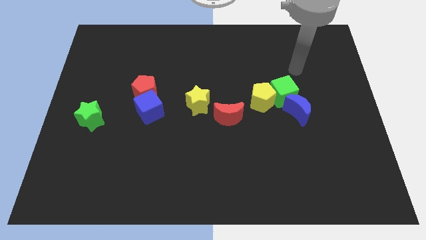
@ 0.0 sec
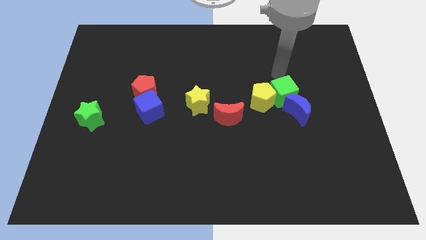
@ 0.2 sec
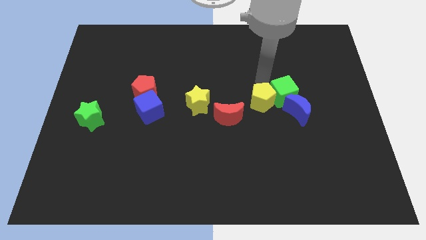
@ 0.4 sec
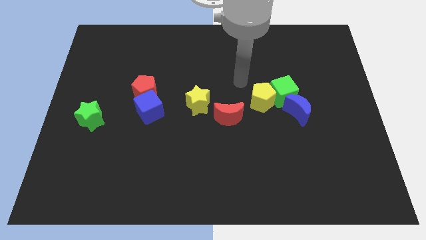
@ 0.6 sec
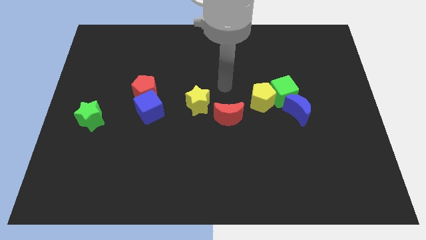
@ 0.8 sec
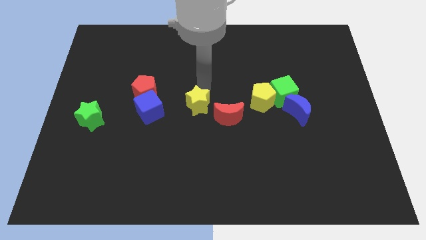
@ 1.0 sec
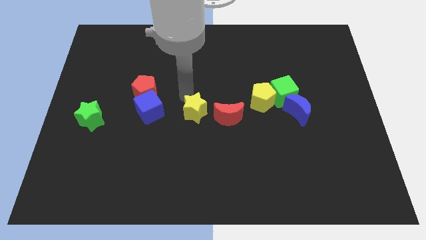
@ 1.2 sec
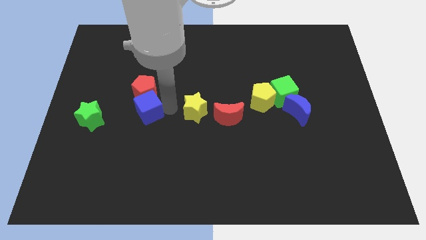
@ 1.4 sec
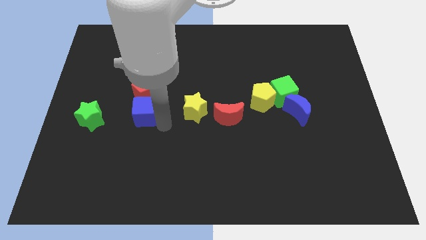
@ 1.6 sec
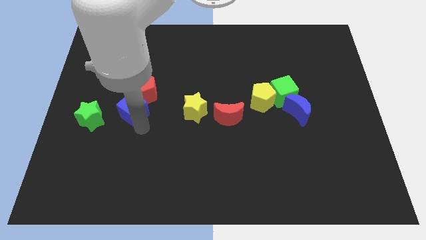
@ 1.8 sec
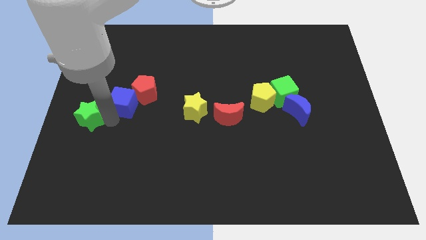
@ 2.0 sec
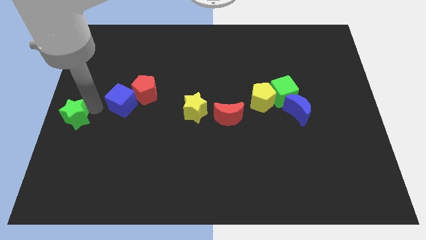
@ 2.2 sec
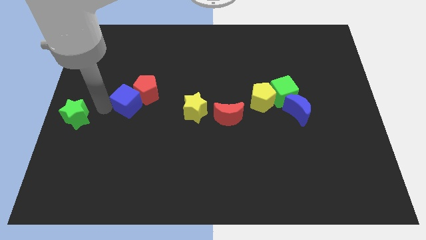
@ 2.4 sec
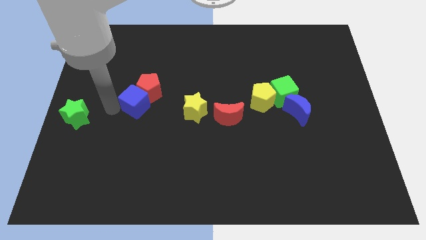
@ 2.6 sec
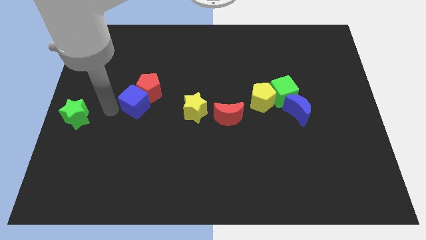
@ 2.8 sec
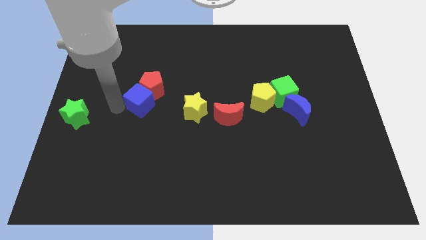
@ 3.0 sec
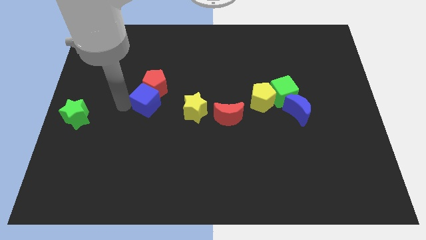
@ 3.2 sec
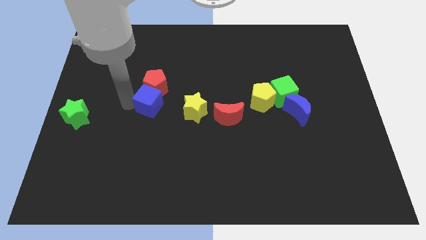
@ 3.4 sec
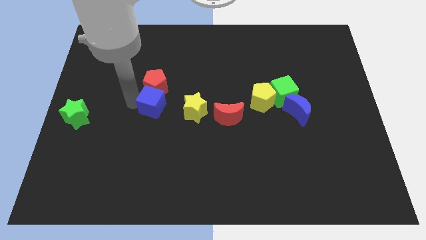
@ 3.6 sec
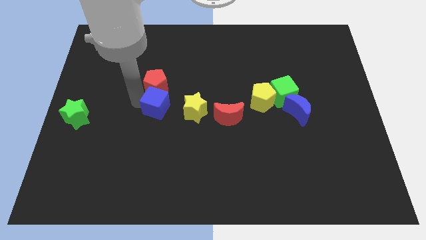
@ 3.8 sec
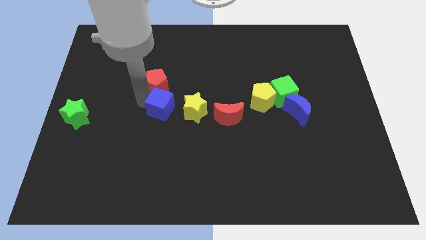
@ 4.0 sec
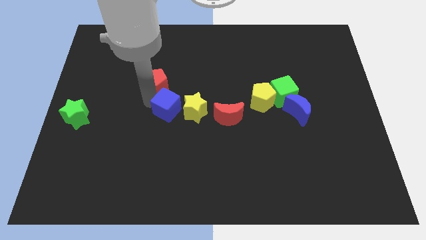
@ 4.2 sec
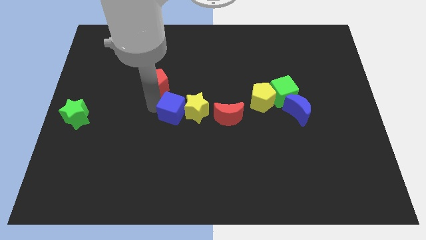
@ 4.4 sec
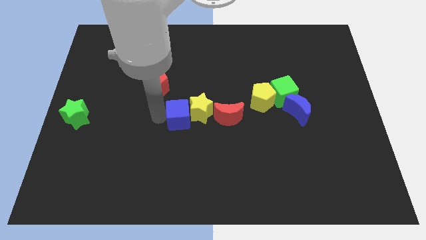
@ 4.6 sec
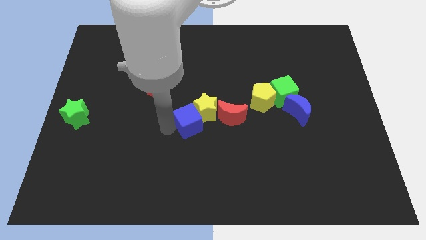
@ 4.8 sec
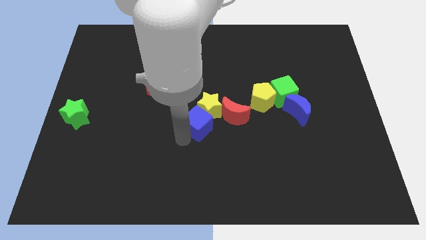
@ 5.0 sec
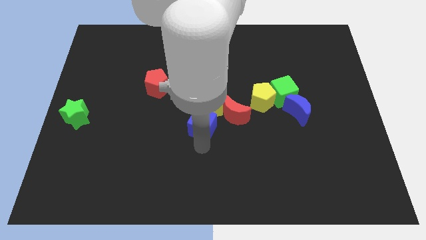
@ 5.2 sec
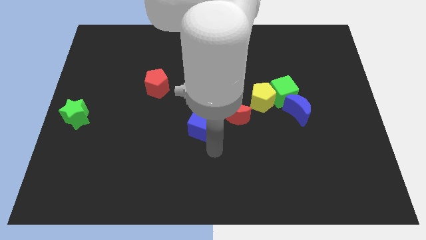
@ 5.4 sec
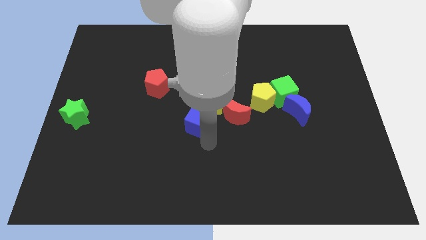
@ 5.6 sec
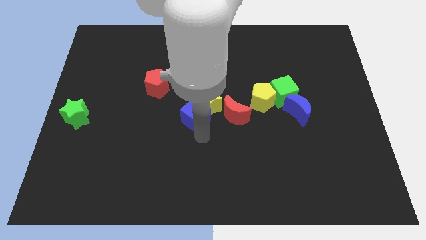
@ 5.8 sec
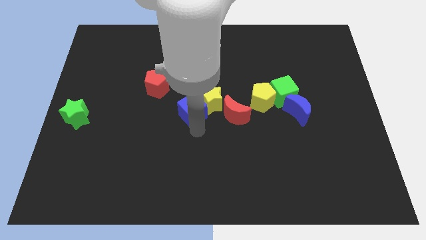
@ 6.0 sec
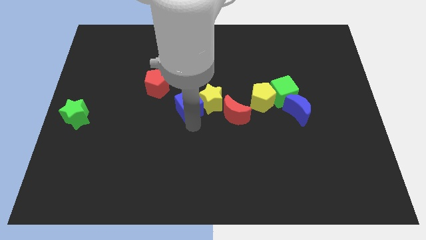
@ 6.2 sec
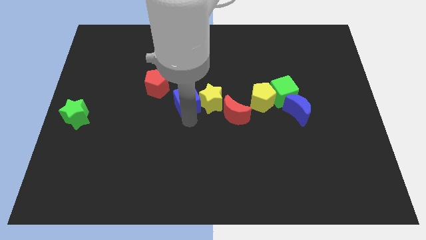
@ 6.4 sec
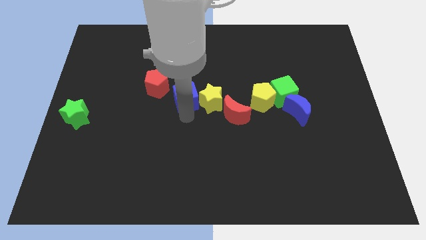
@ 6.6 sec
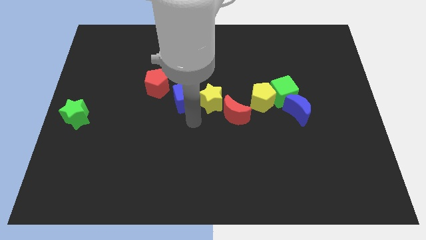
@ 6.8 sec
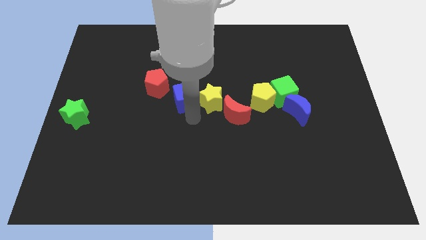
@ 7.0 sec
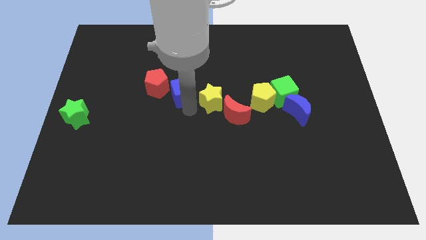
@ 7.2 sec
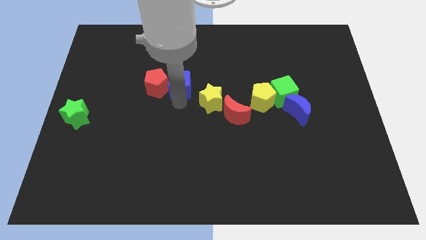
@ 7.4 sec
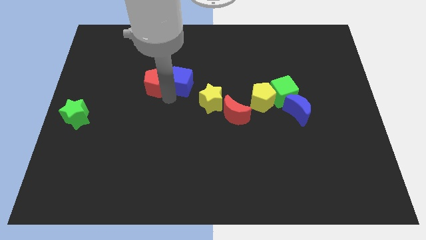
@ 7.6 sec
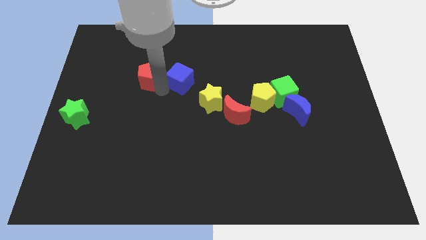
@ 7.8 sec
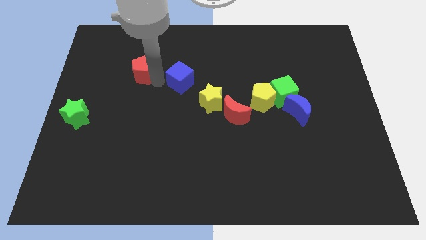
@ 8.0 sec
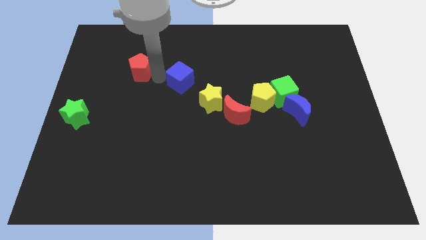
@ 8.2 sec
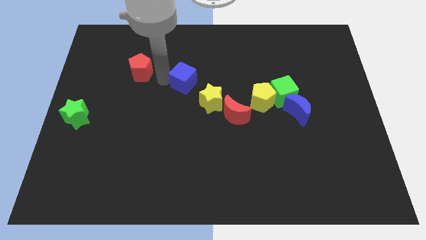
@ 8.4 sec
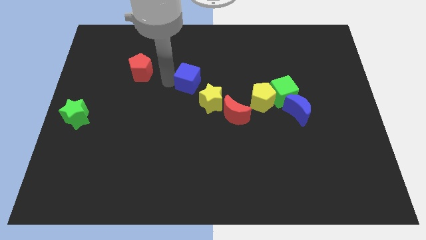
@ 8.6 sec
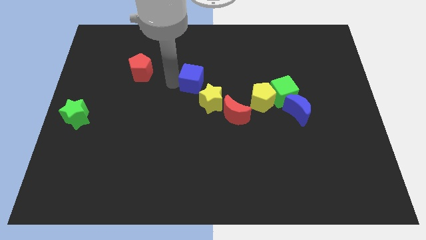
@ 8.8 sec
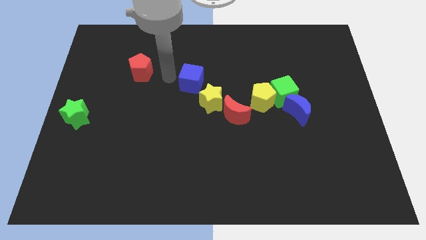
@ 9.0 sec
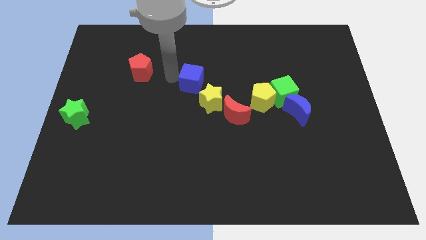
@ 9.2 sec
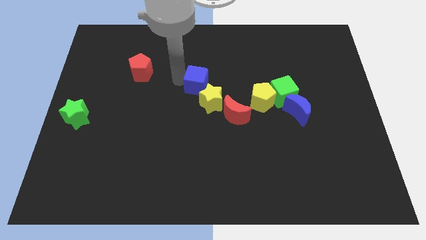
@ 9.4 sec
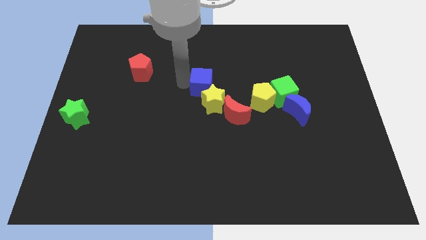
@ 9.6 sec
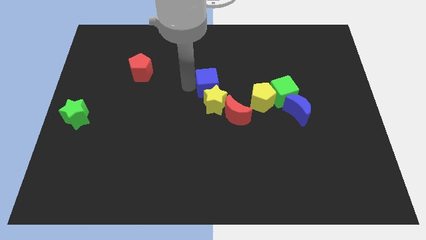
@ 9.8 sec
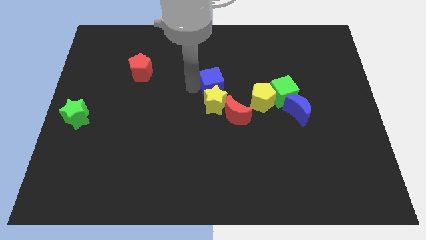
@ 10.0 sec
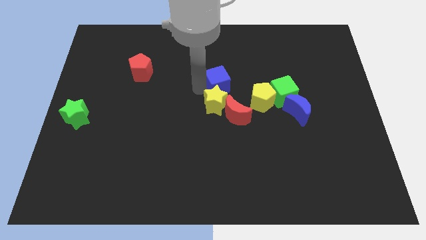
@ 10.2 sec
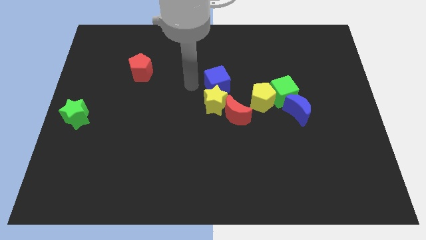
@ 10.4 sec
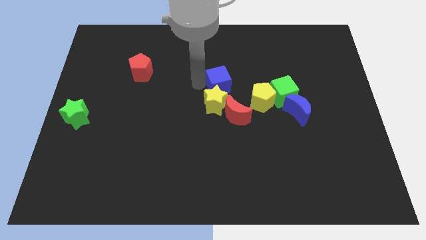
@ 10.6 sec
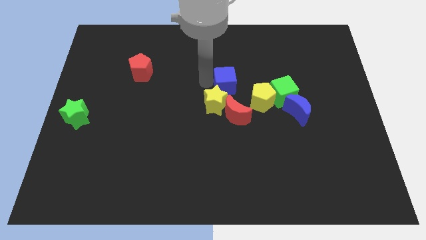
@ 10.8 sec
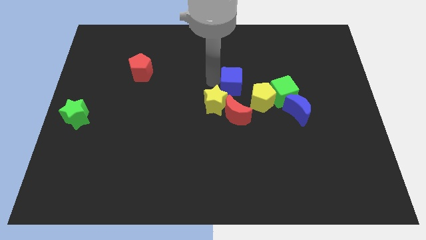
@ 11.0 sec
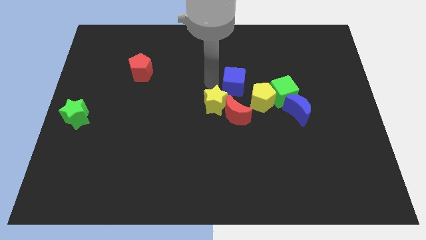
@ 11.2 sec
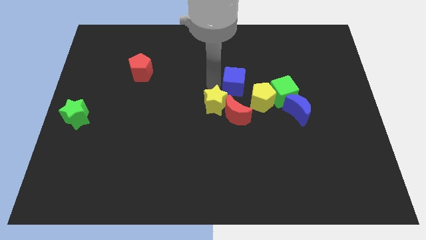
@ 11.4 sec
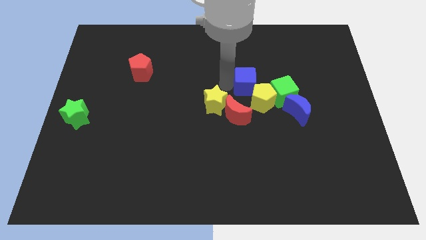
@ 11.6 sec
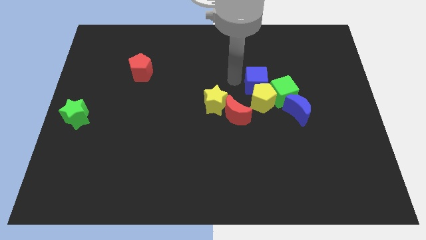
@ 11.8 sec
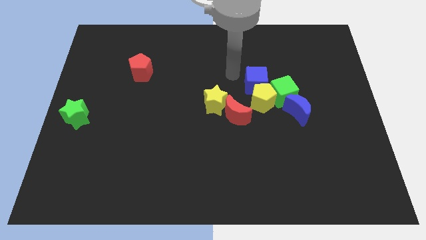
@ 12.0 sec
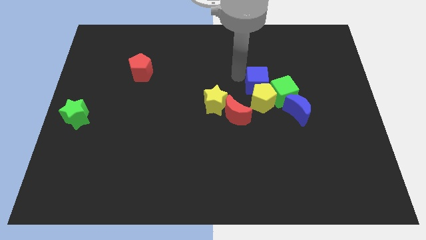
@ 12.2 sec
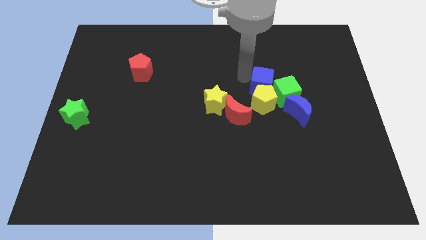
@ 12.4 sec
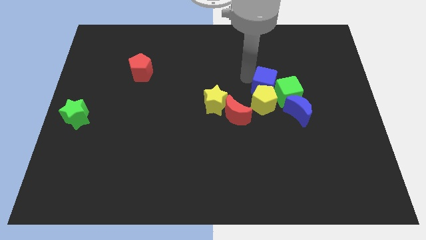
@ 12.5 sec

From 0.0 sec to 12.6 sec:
slide the blue cube to the green cube
